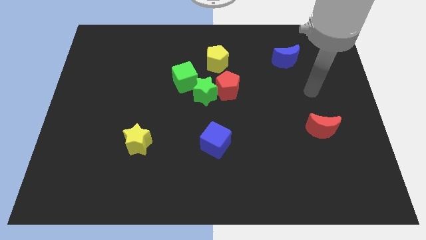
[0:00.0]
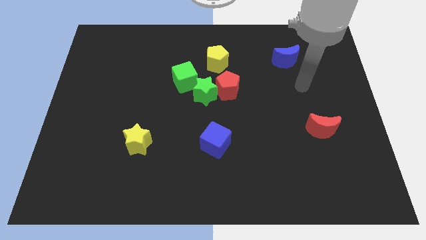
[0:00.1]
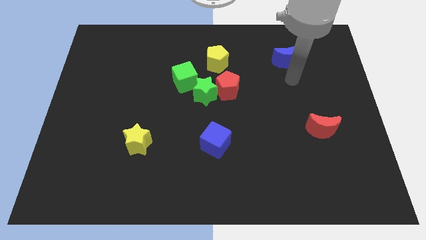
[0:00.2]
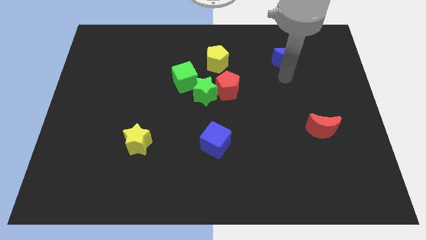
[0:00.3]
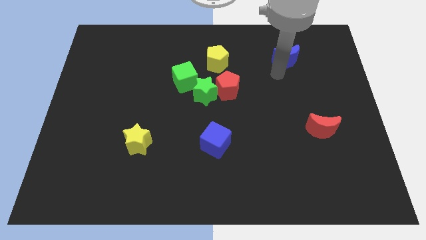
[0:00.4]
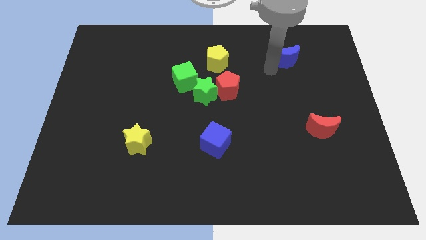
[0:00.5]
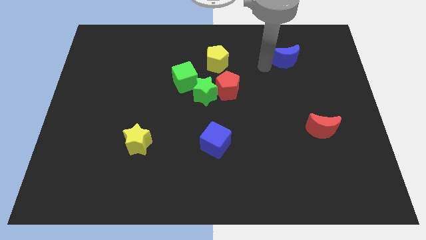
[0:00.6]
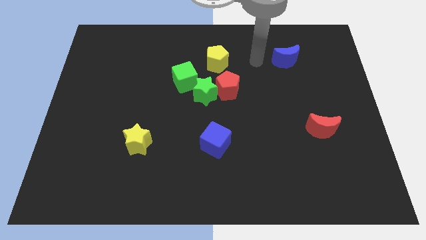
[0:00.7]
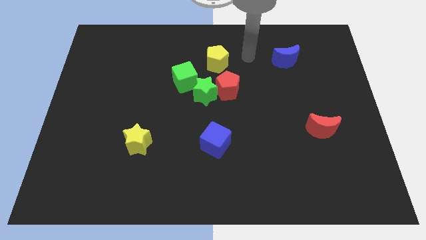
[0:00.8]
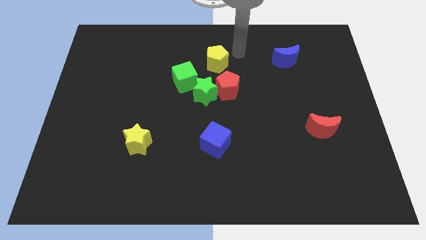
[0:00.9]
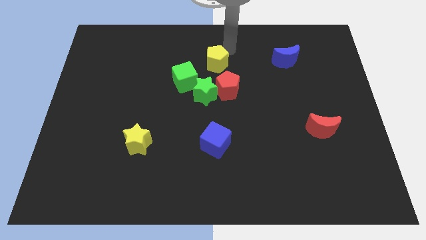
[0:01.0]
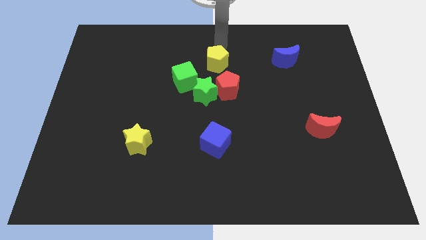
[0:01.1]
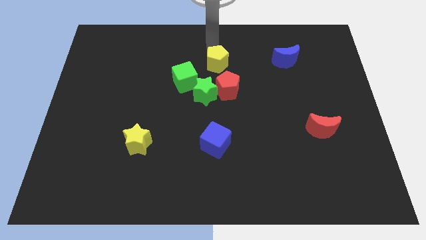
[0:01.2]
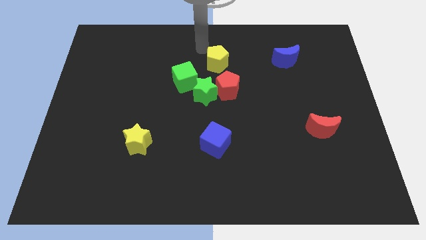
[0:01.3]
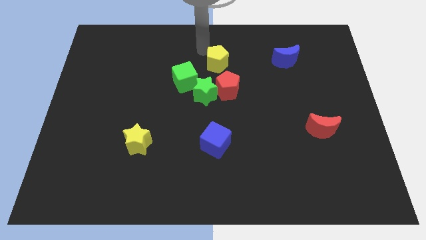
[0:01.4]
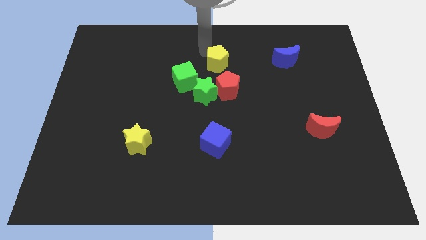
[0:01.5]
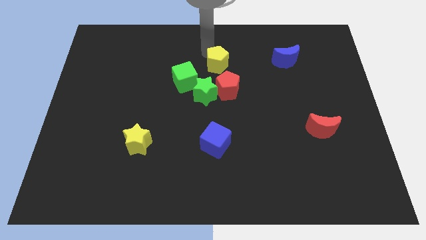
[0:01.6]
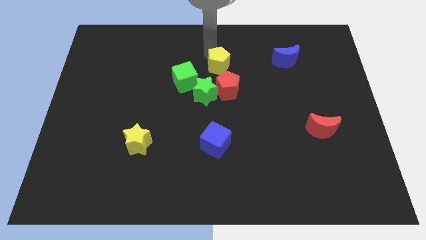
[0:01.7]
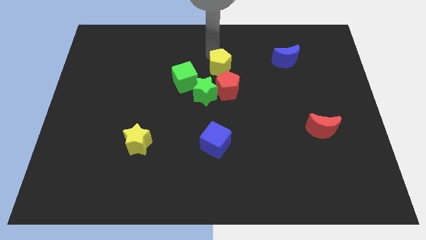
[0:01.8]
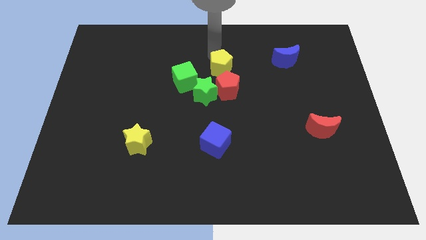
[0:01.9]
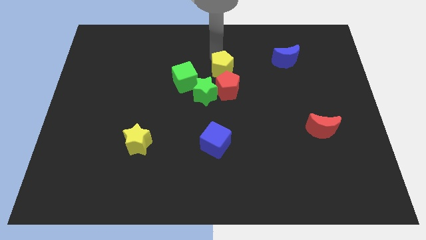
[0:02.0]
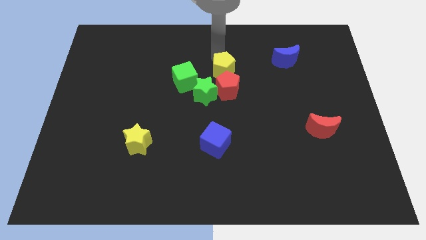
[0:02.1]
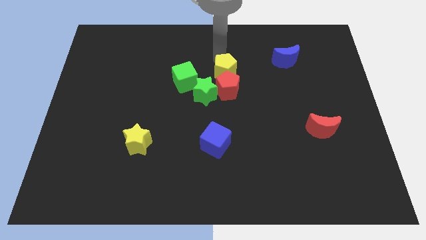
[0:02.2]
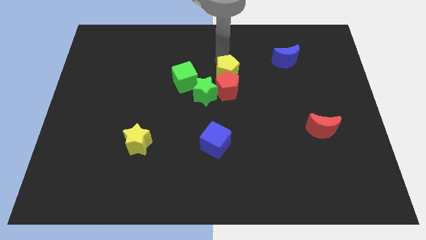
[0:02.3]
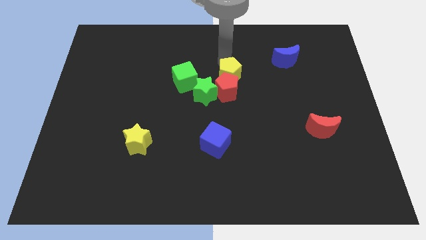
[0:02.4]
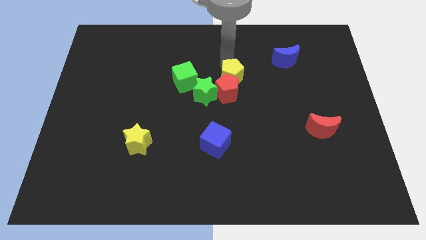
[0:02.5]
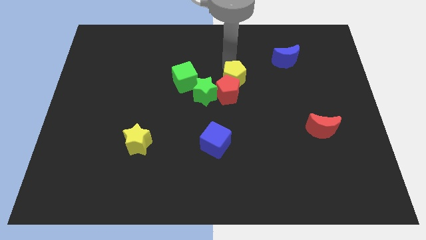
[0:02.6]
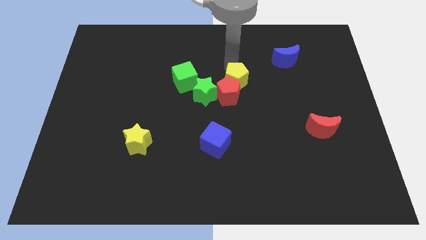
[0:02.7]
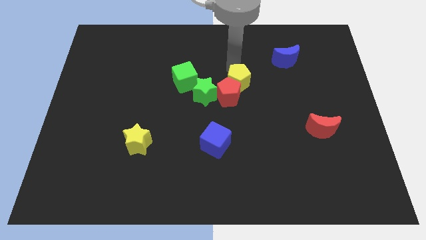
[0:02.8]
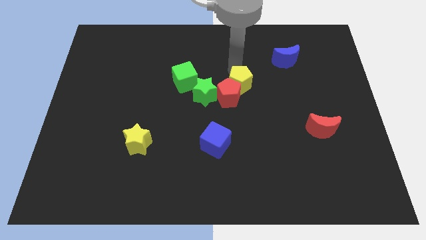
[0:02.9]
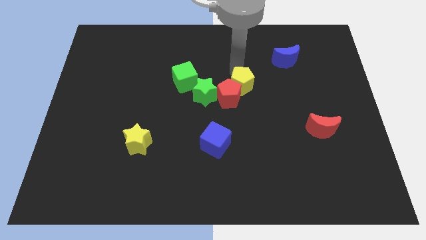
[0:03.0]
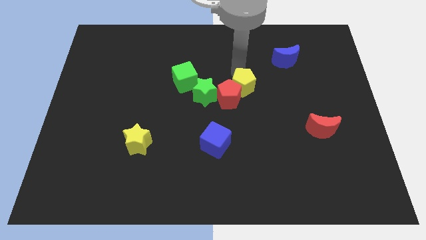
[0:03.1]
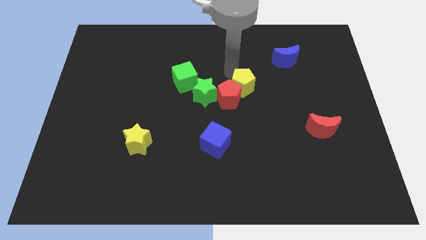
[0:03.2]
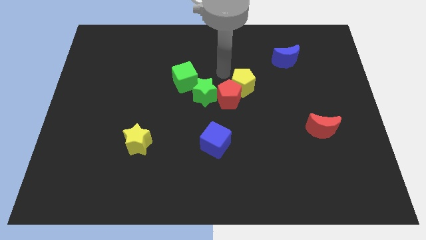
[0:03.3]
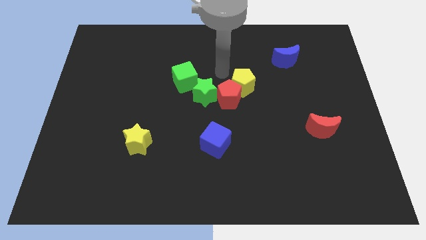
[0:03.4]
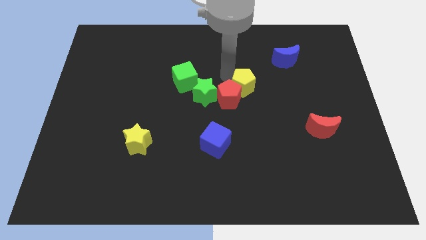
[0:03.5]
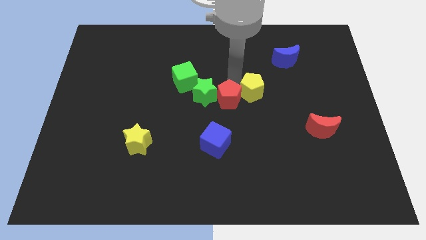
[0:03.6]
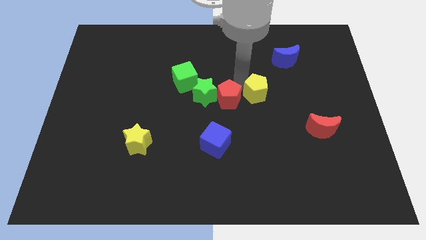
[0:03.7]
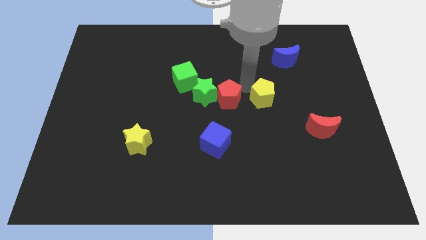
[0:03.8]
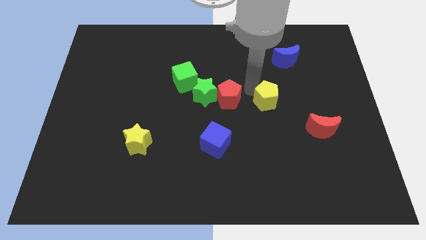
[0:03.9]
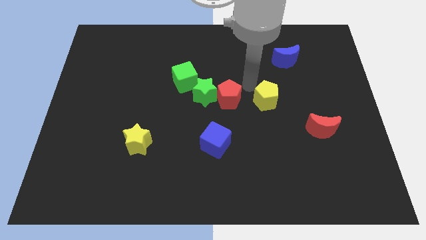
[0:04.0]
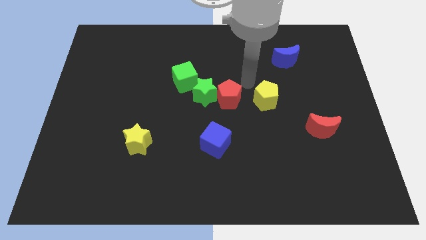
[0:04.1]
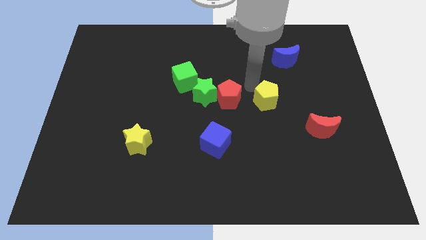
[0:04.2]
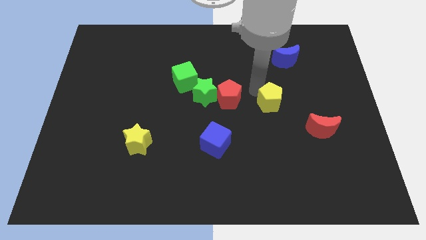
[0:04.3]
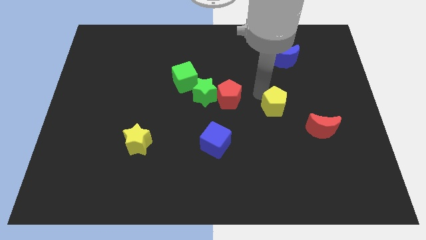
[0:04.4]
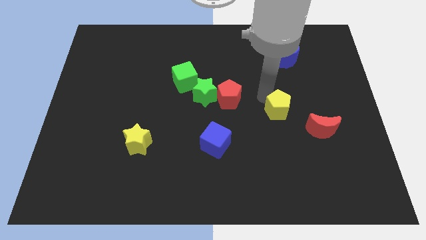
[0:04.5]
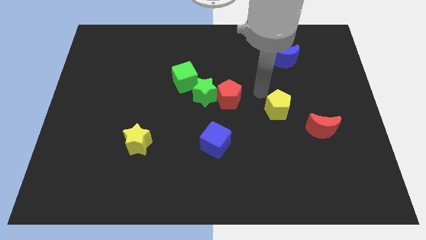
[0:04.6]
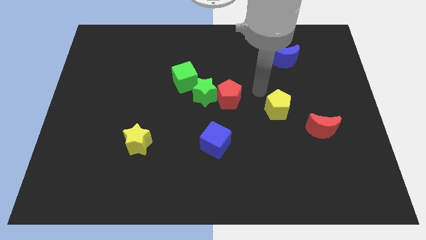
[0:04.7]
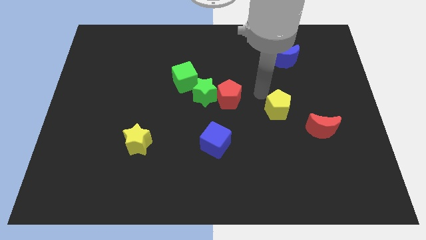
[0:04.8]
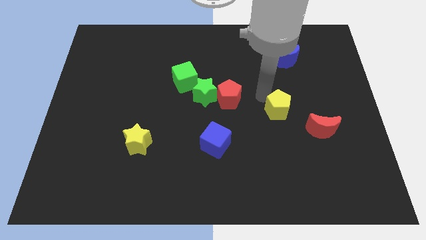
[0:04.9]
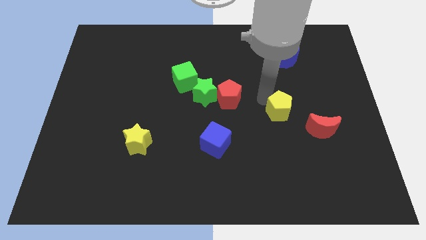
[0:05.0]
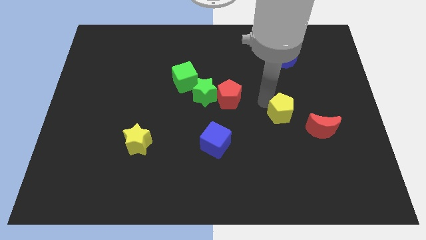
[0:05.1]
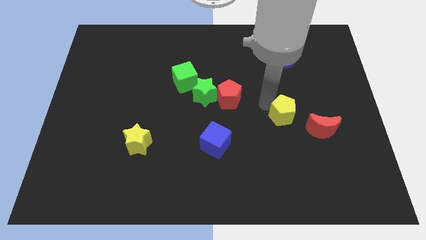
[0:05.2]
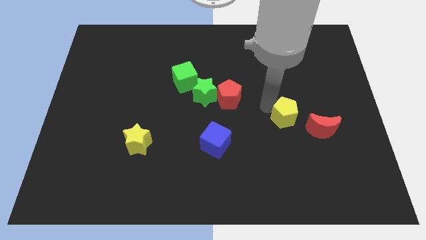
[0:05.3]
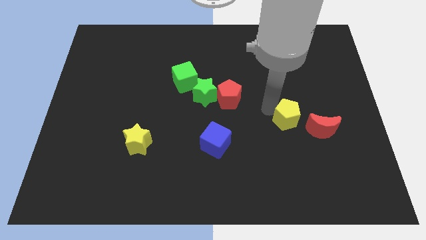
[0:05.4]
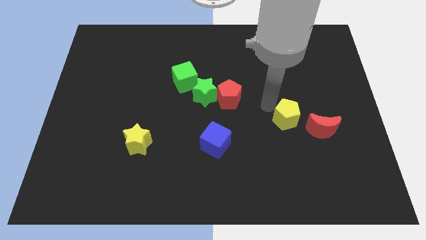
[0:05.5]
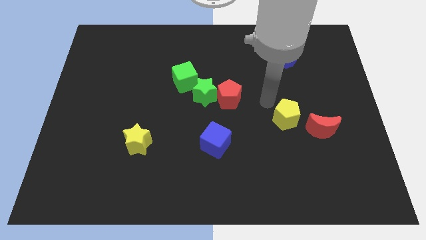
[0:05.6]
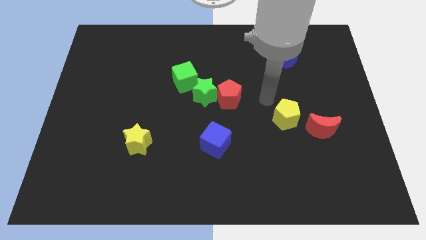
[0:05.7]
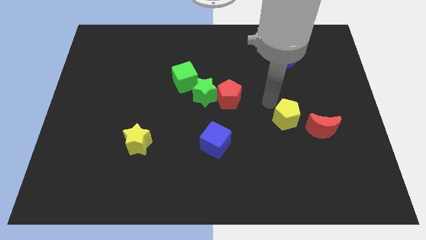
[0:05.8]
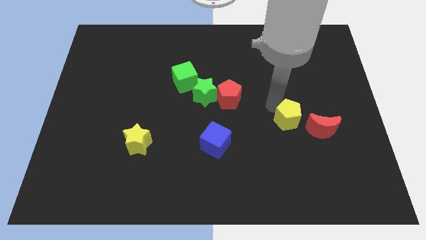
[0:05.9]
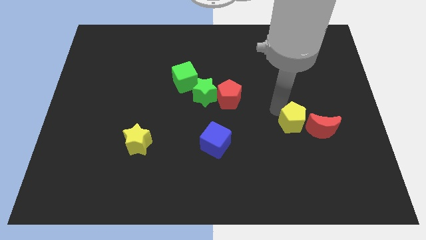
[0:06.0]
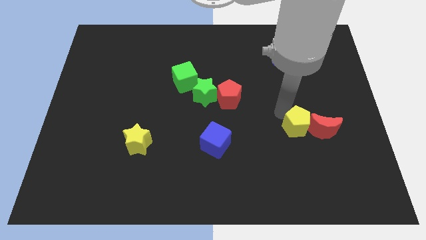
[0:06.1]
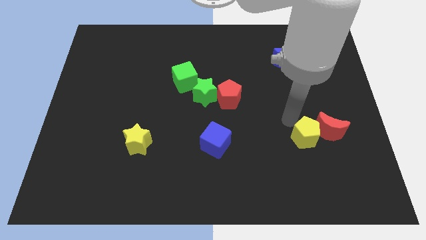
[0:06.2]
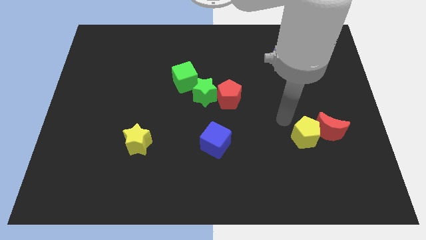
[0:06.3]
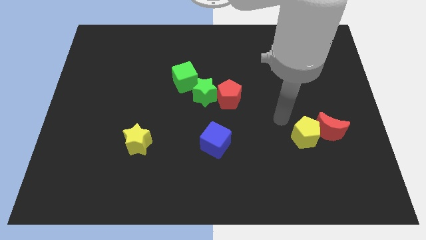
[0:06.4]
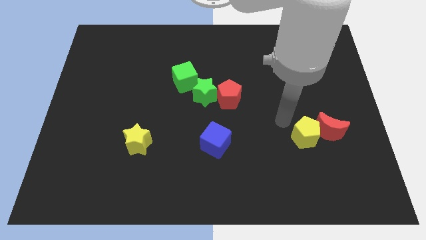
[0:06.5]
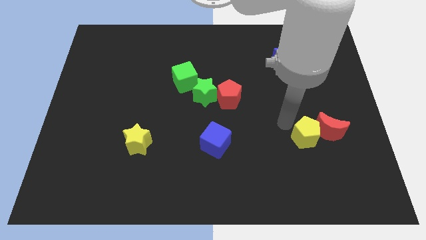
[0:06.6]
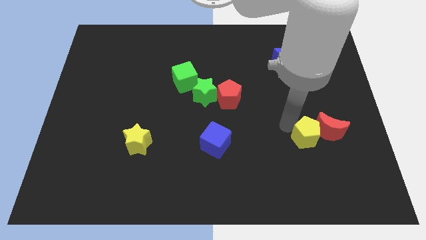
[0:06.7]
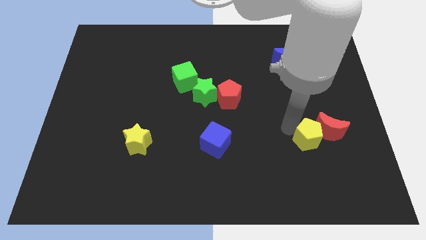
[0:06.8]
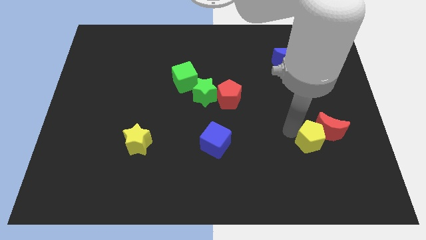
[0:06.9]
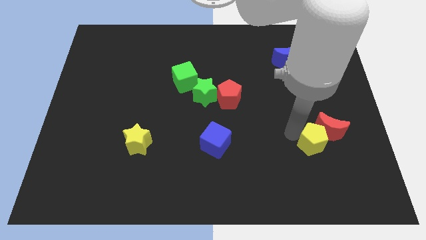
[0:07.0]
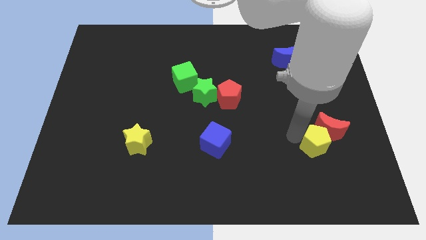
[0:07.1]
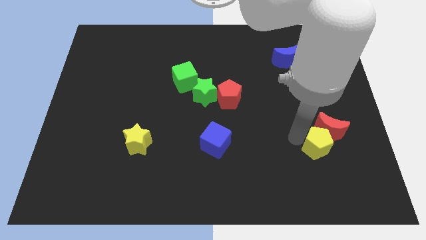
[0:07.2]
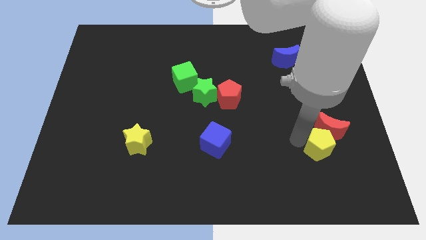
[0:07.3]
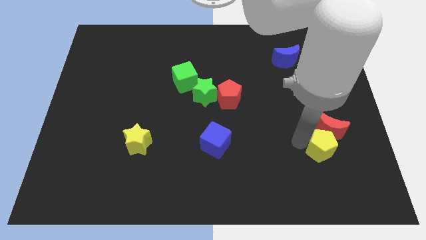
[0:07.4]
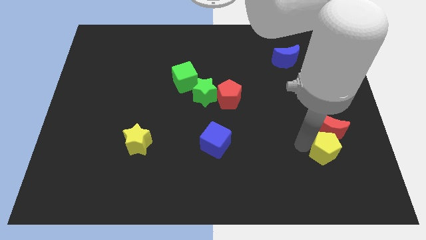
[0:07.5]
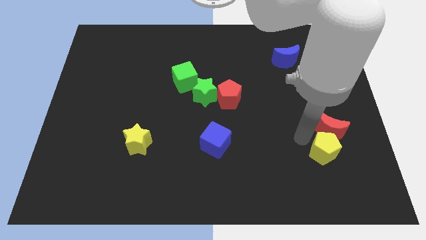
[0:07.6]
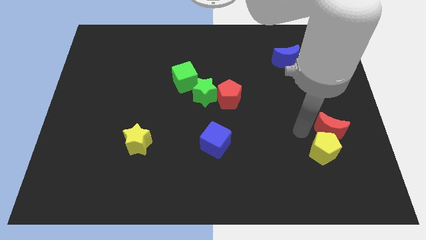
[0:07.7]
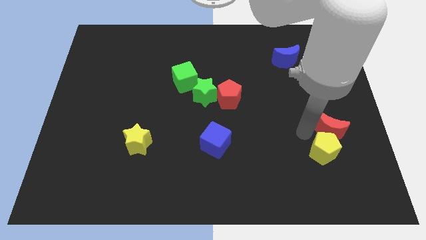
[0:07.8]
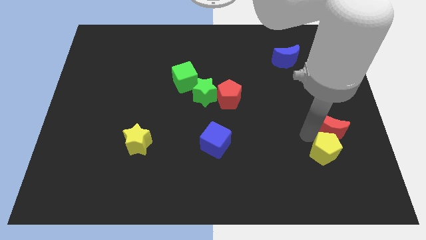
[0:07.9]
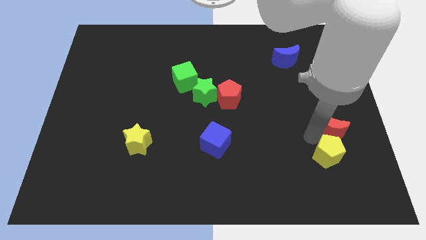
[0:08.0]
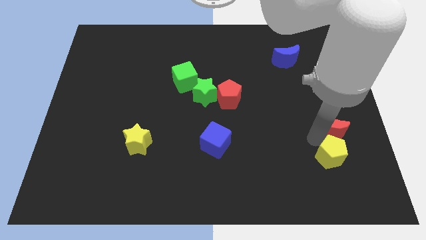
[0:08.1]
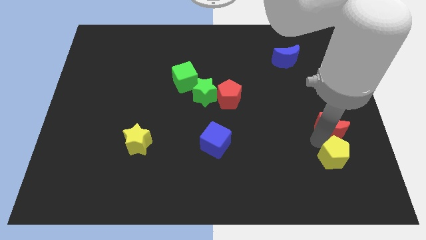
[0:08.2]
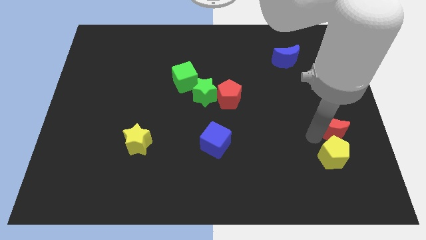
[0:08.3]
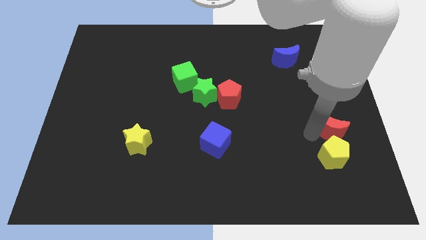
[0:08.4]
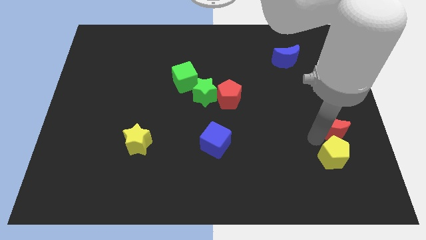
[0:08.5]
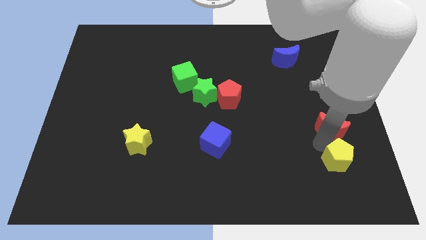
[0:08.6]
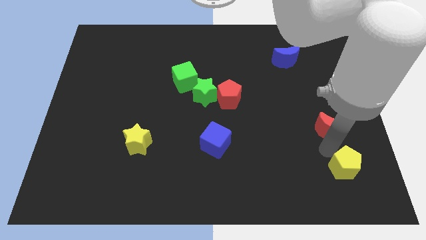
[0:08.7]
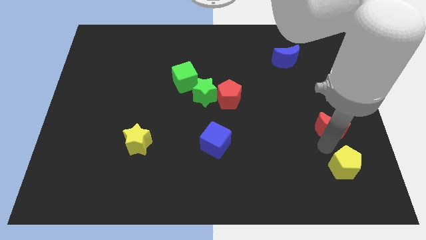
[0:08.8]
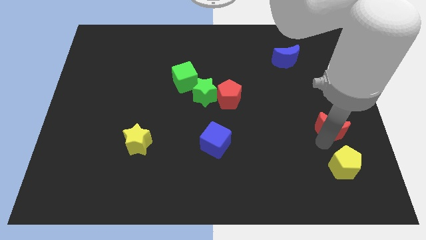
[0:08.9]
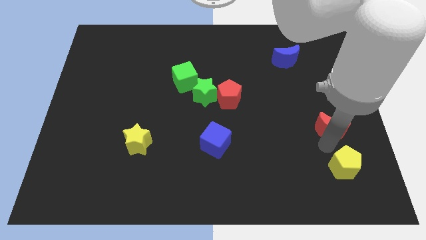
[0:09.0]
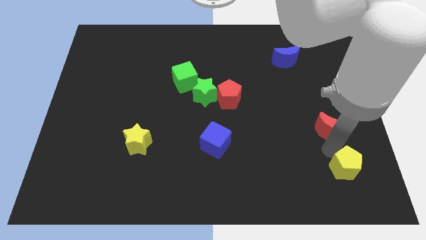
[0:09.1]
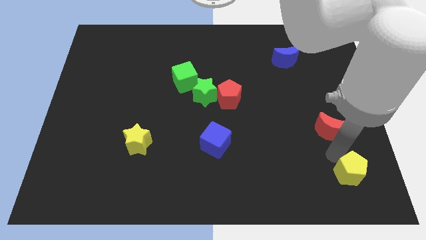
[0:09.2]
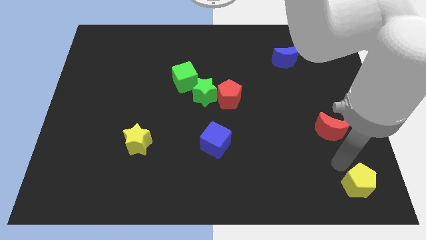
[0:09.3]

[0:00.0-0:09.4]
move the yellow pentagon to the lower right corner
